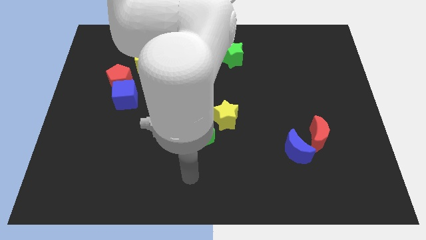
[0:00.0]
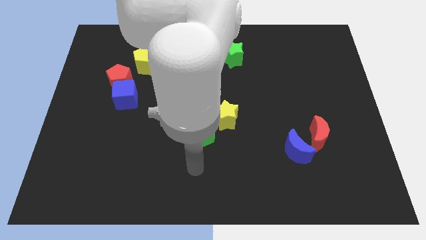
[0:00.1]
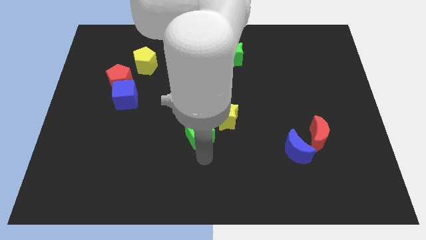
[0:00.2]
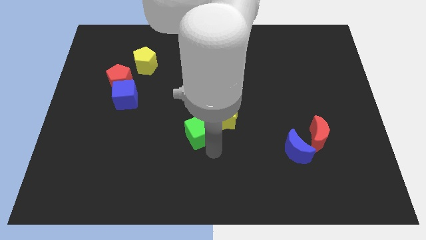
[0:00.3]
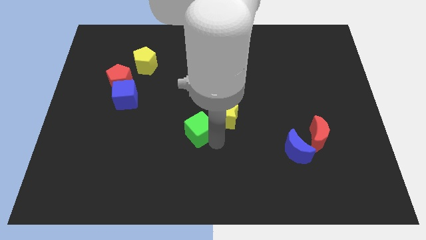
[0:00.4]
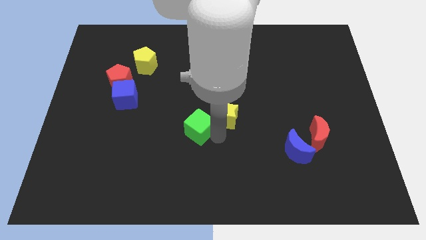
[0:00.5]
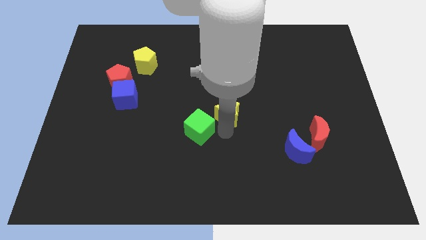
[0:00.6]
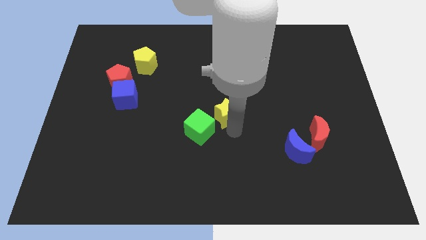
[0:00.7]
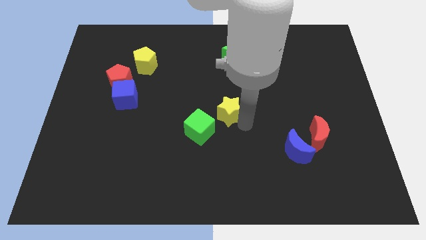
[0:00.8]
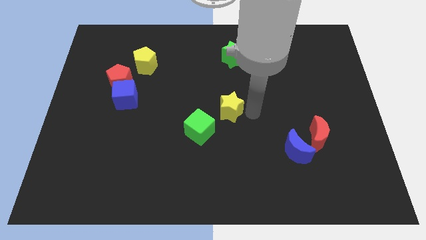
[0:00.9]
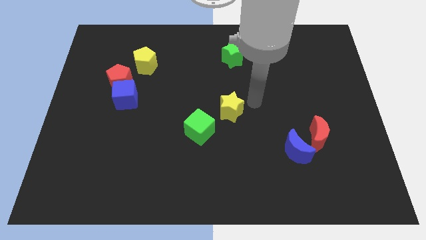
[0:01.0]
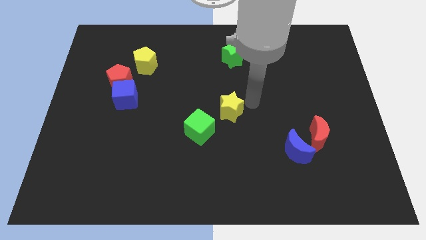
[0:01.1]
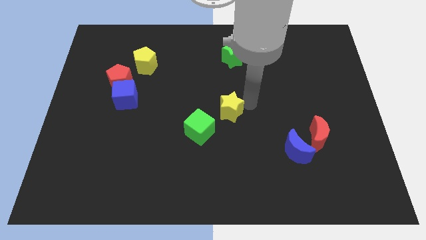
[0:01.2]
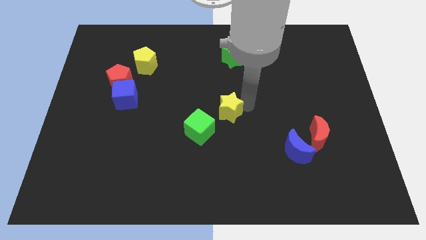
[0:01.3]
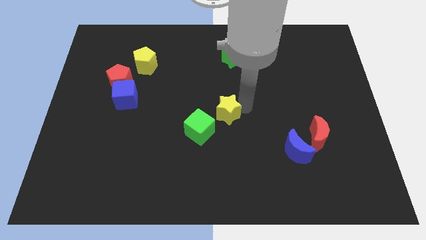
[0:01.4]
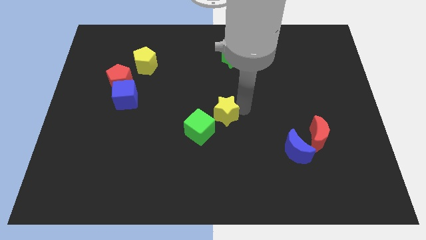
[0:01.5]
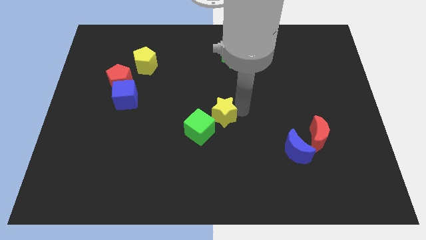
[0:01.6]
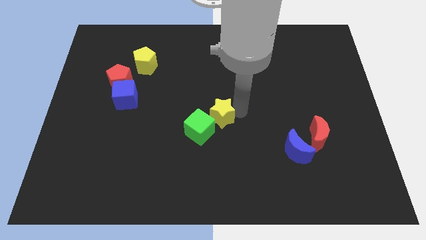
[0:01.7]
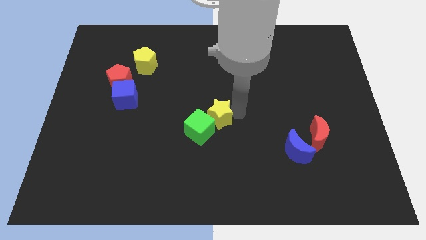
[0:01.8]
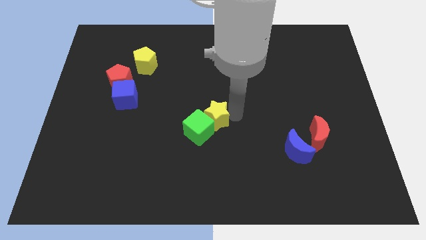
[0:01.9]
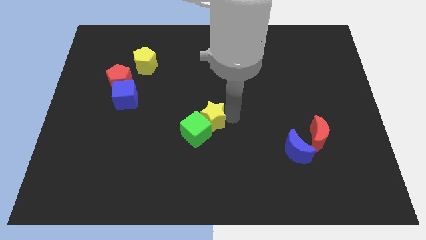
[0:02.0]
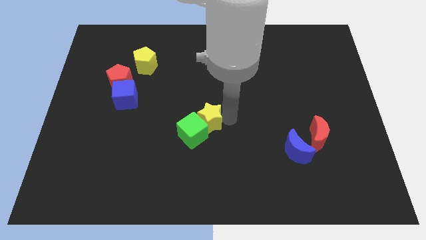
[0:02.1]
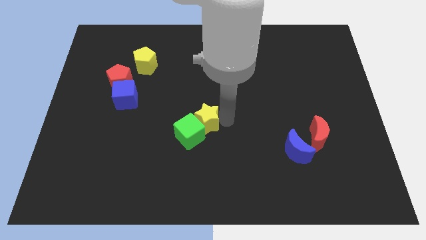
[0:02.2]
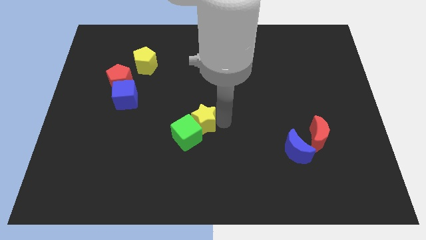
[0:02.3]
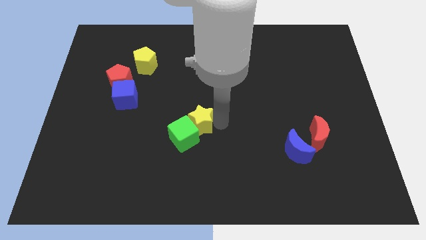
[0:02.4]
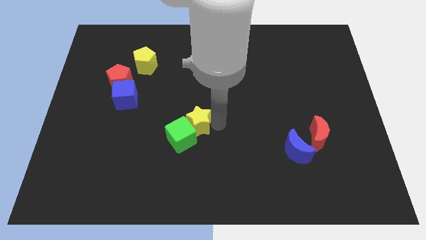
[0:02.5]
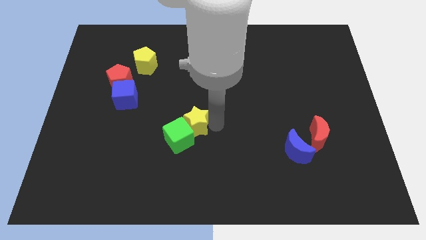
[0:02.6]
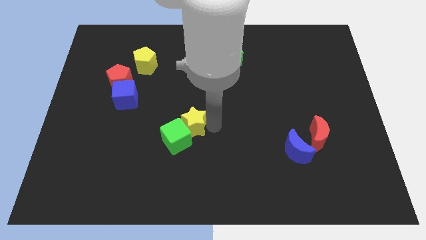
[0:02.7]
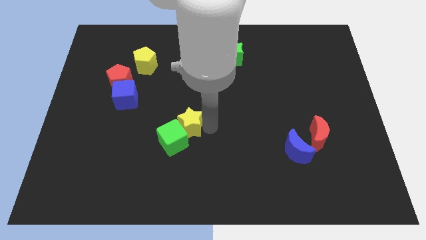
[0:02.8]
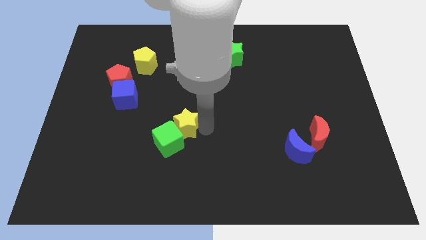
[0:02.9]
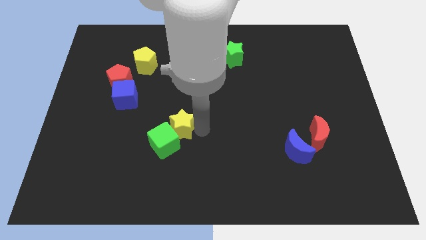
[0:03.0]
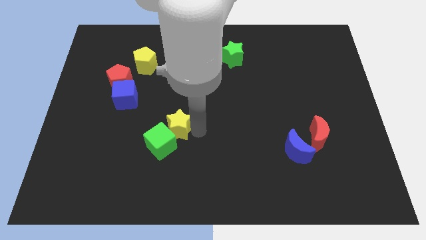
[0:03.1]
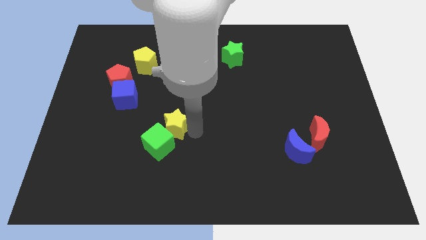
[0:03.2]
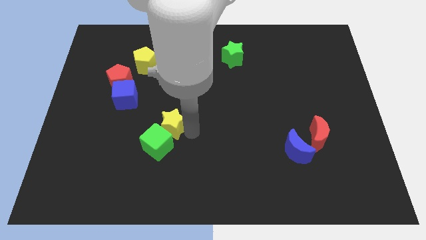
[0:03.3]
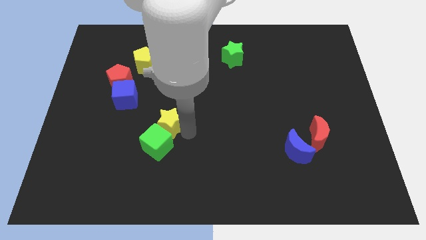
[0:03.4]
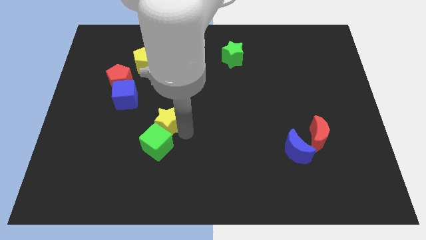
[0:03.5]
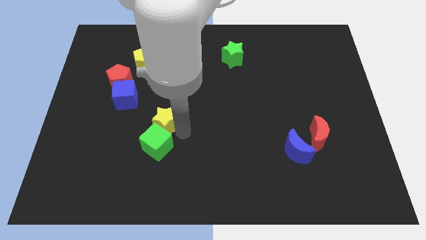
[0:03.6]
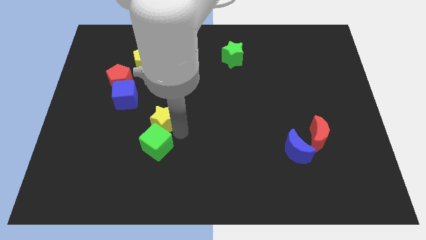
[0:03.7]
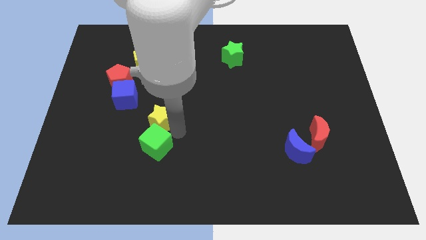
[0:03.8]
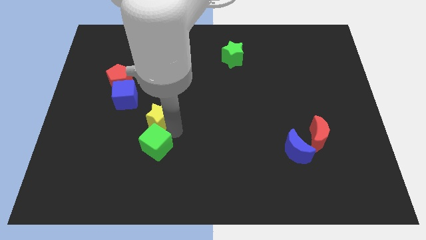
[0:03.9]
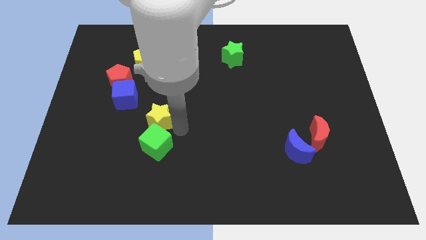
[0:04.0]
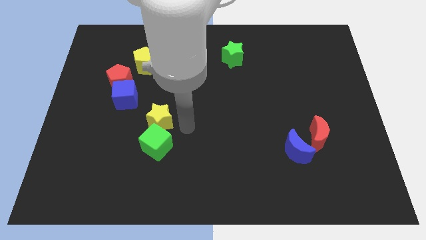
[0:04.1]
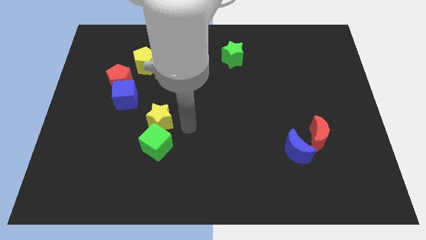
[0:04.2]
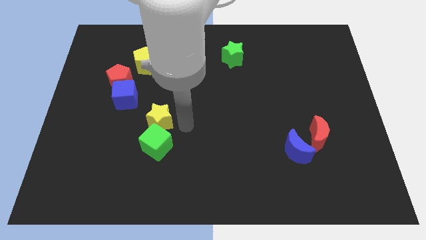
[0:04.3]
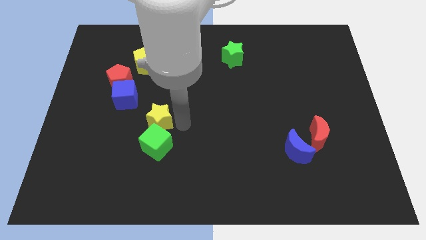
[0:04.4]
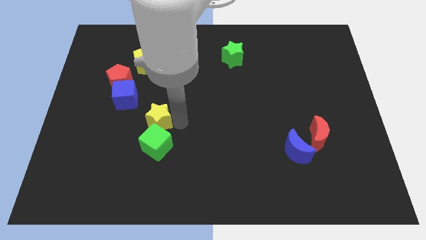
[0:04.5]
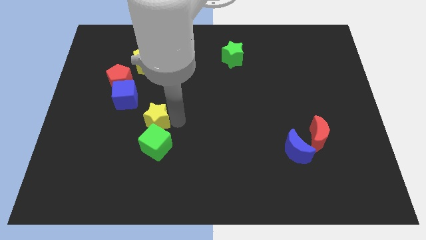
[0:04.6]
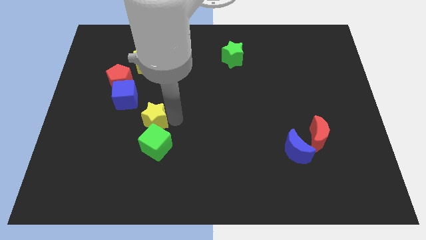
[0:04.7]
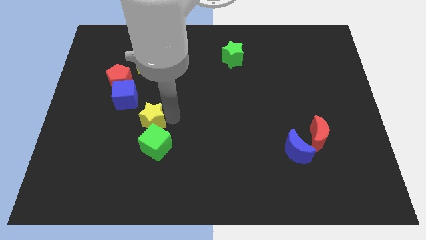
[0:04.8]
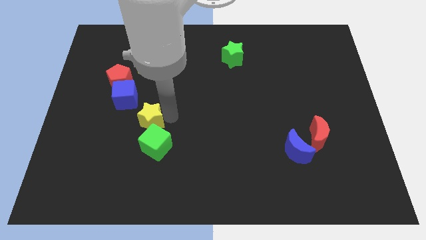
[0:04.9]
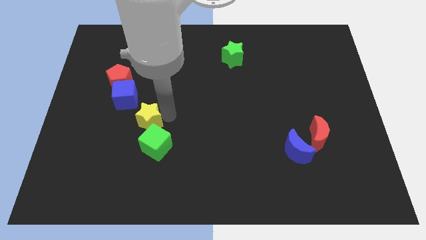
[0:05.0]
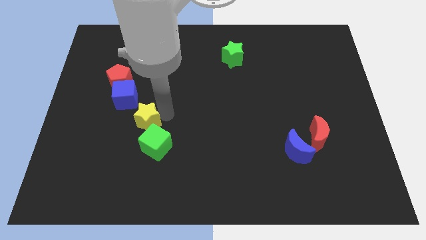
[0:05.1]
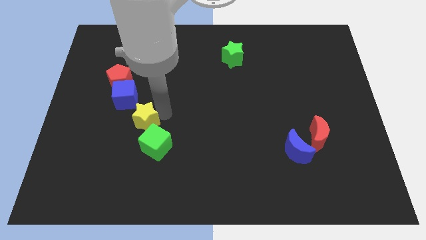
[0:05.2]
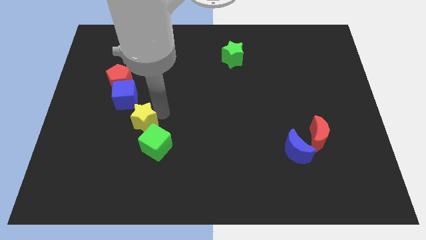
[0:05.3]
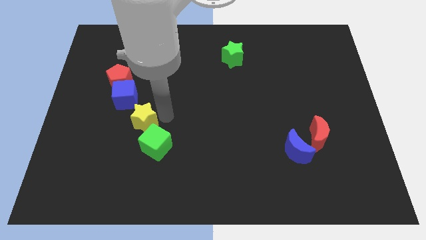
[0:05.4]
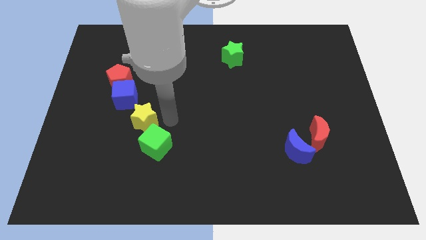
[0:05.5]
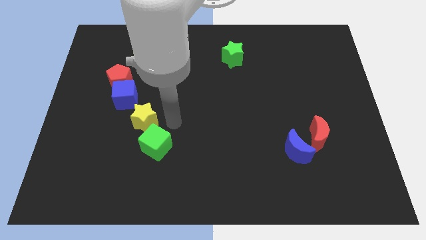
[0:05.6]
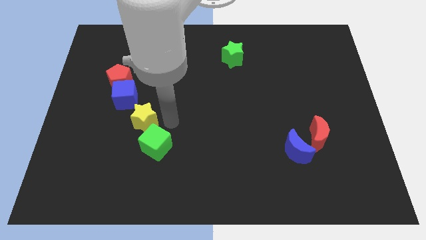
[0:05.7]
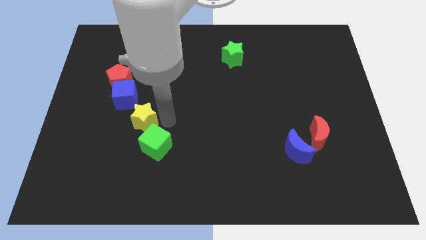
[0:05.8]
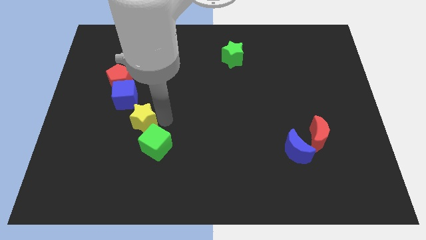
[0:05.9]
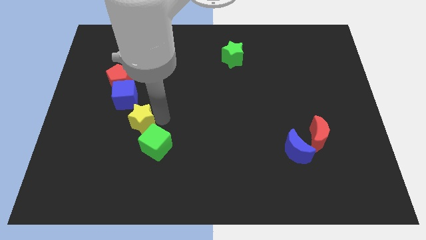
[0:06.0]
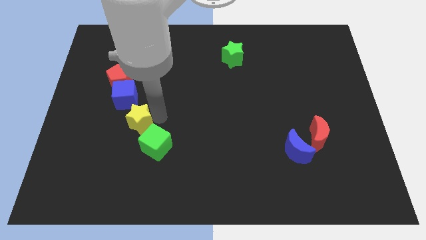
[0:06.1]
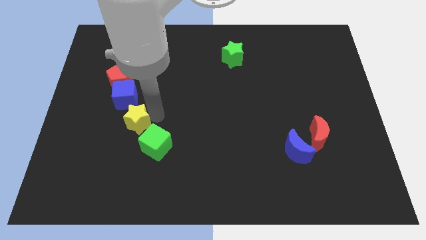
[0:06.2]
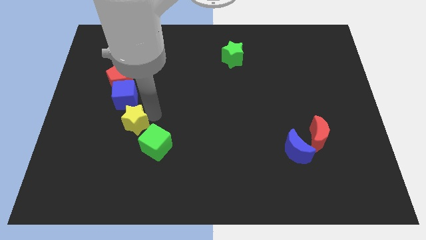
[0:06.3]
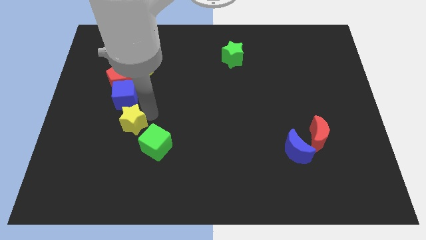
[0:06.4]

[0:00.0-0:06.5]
push the yellow star to the bottom of the red pentagon

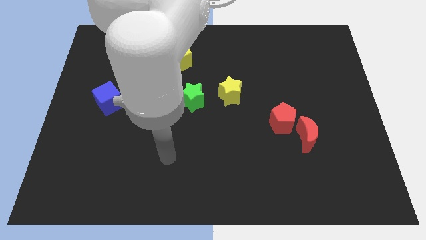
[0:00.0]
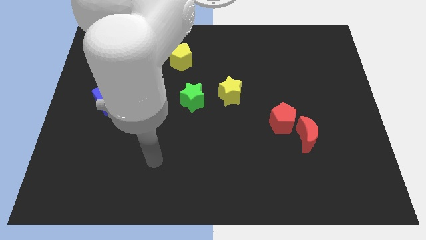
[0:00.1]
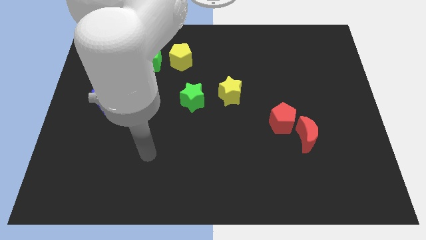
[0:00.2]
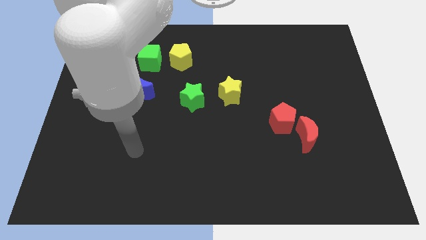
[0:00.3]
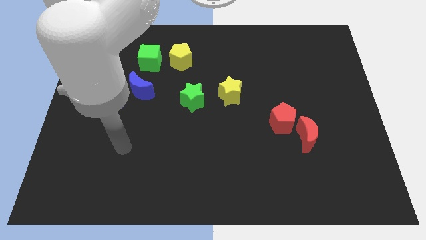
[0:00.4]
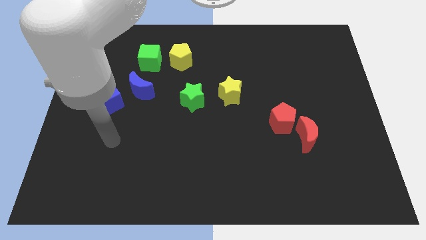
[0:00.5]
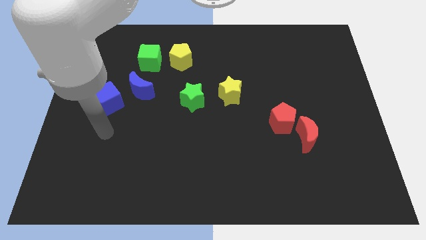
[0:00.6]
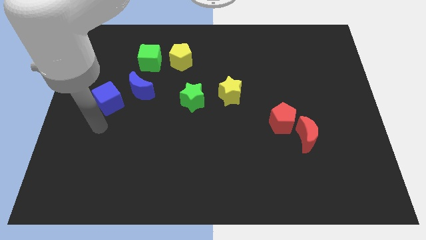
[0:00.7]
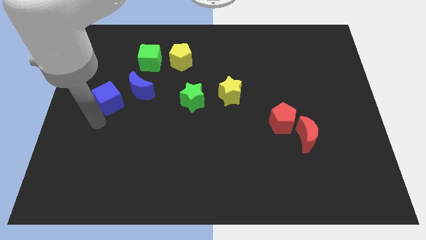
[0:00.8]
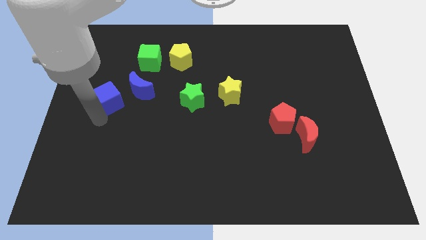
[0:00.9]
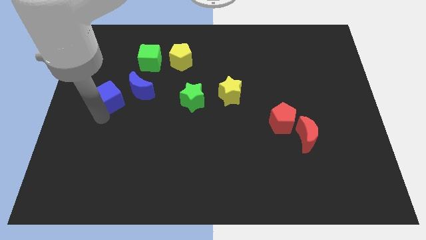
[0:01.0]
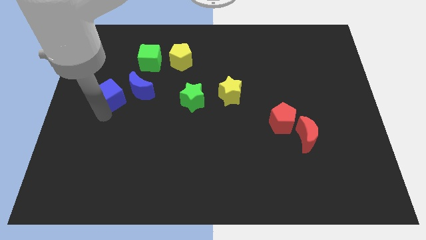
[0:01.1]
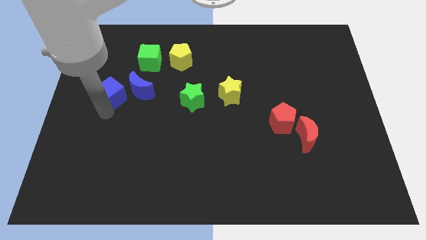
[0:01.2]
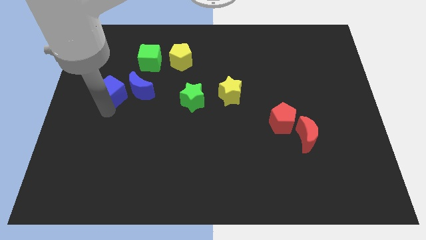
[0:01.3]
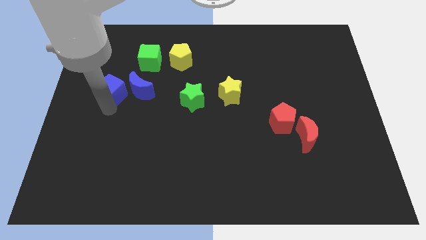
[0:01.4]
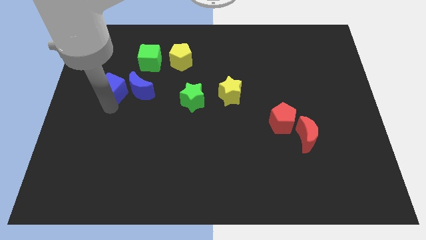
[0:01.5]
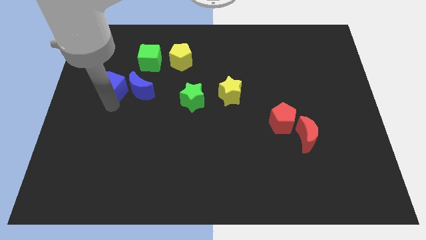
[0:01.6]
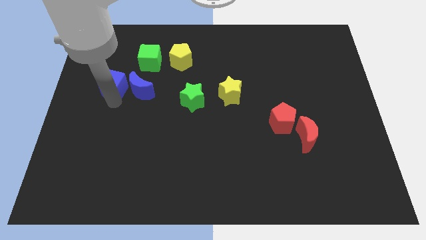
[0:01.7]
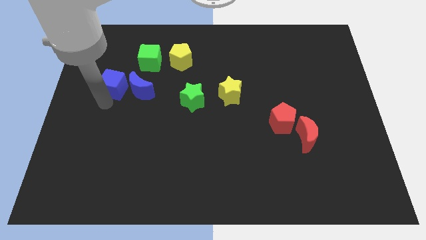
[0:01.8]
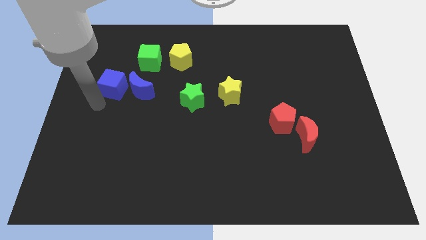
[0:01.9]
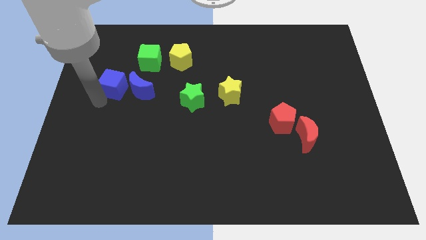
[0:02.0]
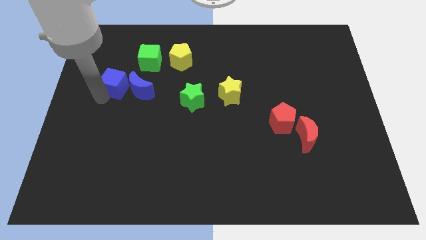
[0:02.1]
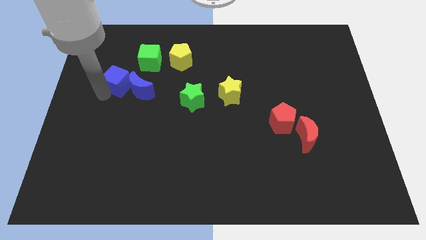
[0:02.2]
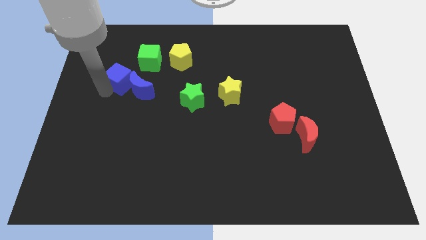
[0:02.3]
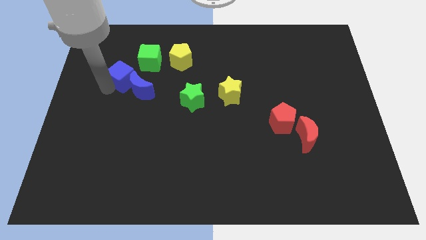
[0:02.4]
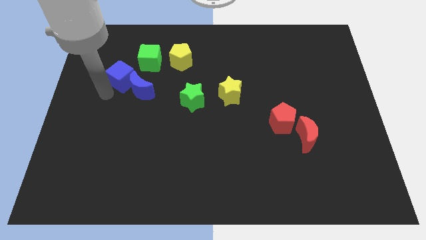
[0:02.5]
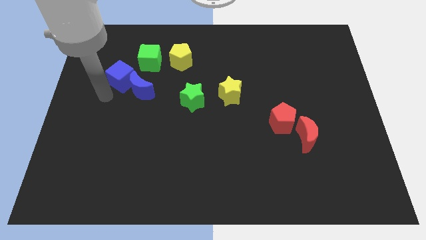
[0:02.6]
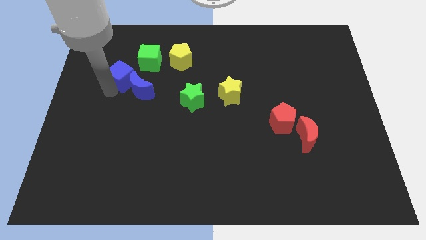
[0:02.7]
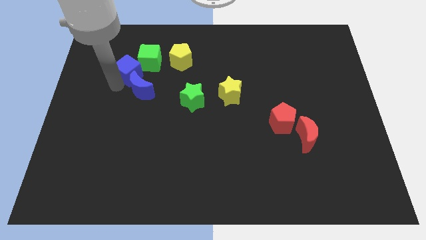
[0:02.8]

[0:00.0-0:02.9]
push the blue cube to the left of the yellow pentagon
